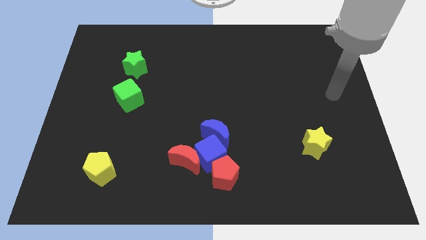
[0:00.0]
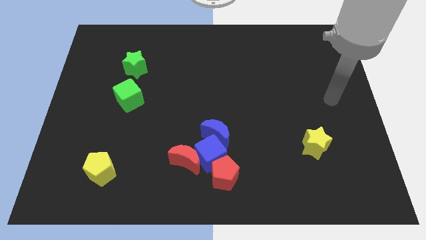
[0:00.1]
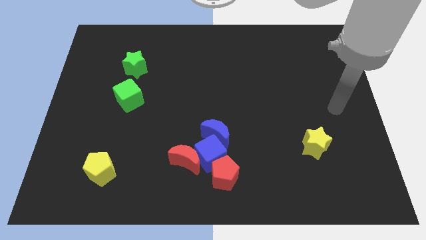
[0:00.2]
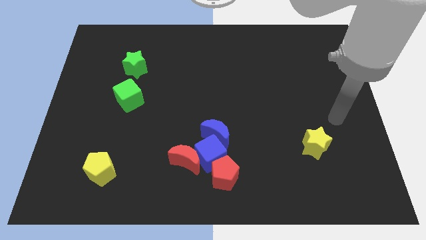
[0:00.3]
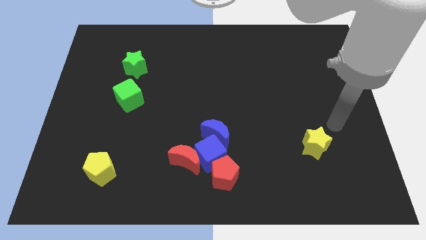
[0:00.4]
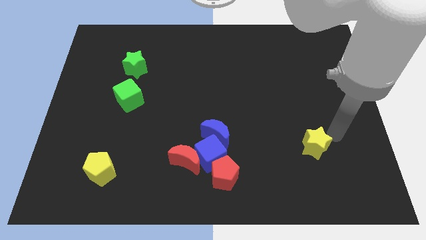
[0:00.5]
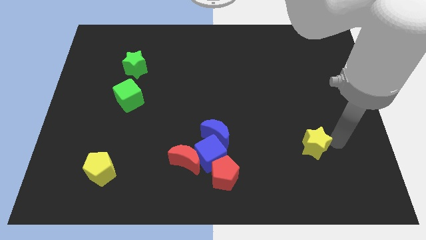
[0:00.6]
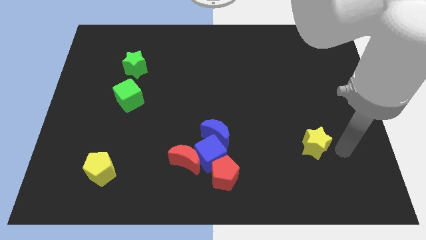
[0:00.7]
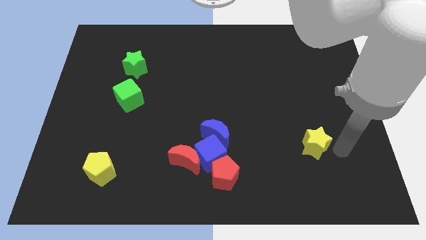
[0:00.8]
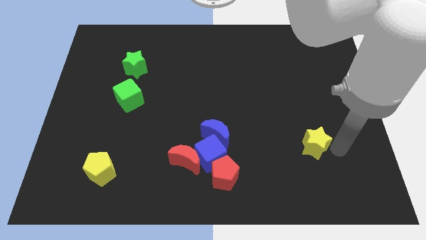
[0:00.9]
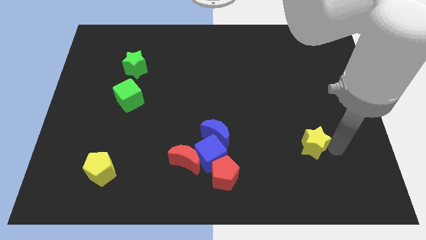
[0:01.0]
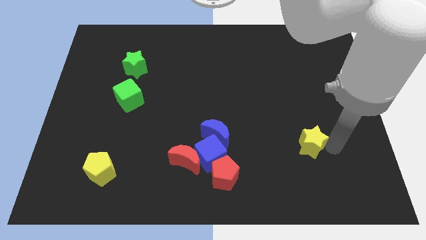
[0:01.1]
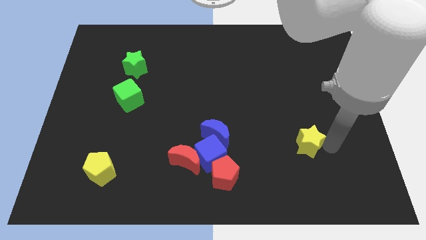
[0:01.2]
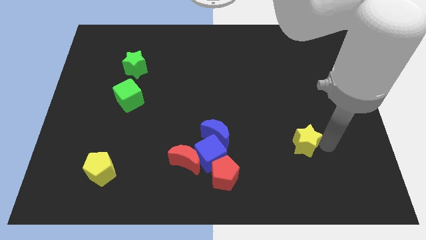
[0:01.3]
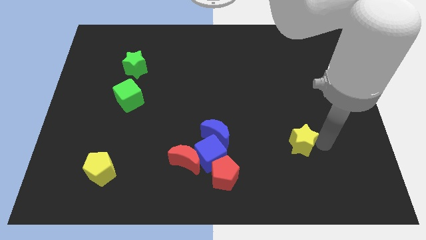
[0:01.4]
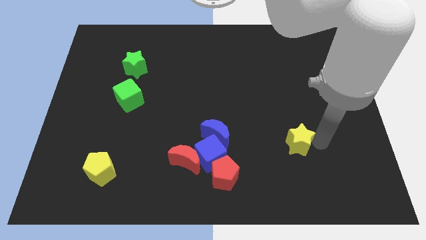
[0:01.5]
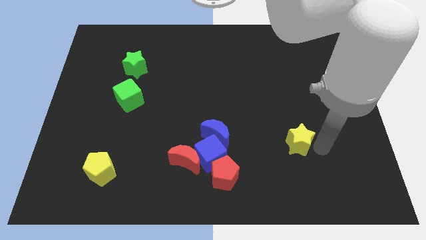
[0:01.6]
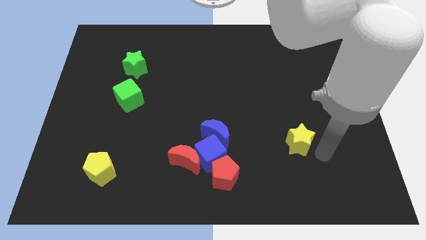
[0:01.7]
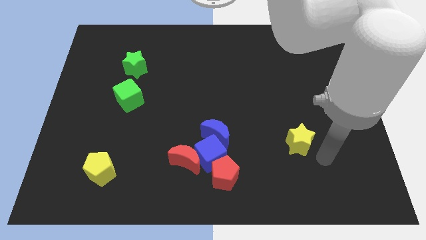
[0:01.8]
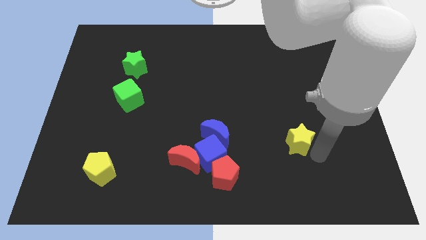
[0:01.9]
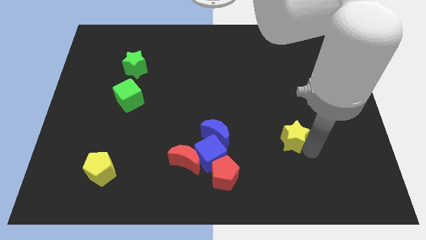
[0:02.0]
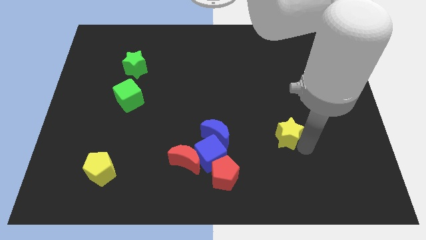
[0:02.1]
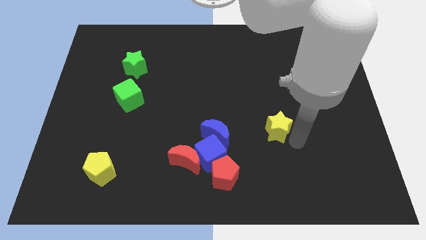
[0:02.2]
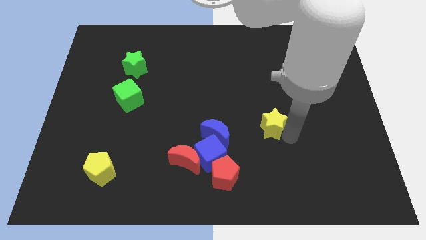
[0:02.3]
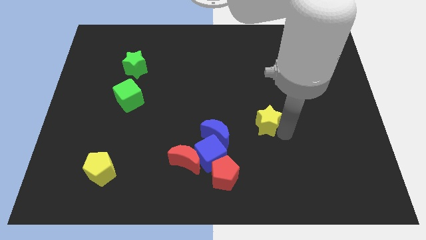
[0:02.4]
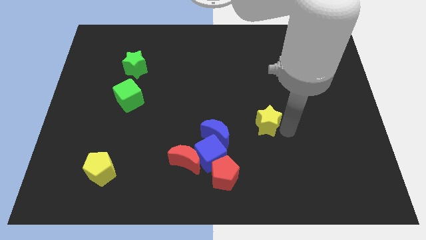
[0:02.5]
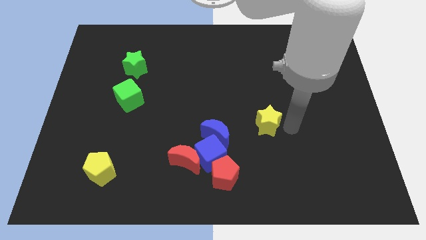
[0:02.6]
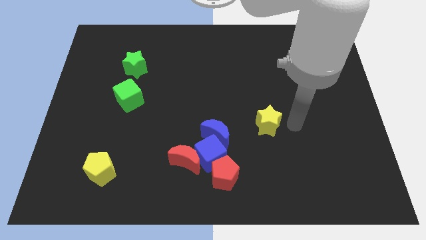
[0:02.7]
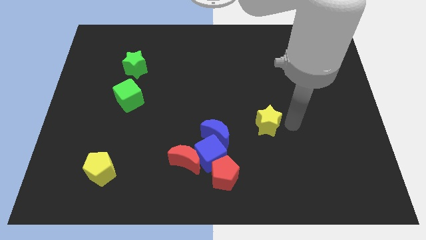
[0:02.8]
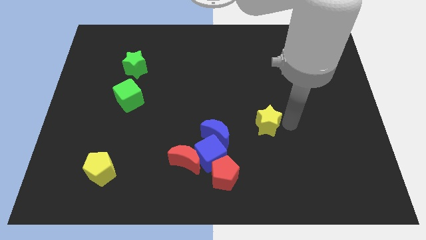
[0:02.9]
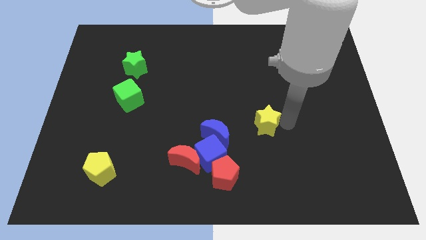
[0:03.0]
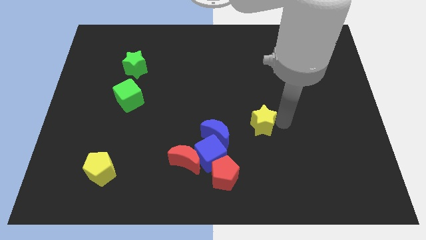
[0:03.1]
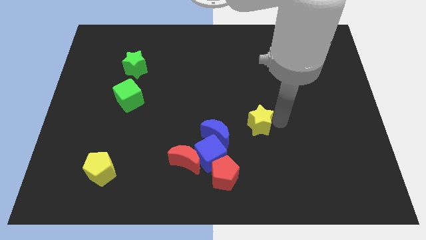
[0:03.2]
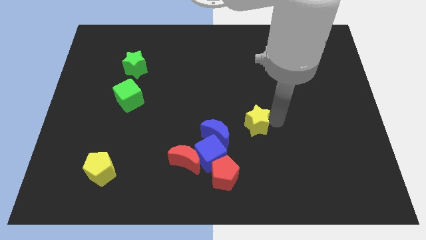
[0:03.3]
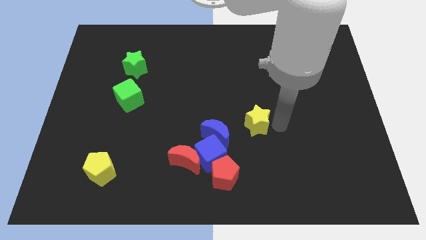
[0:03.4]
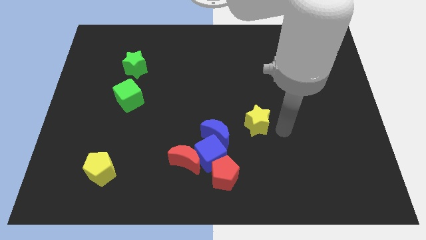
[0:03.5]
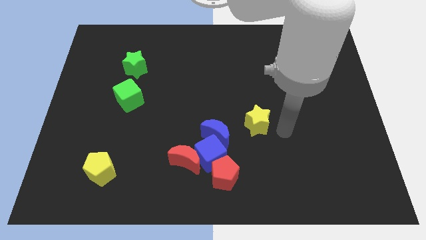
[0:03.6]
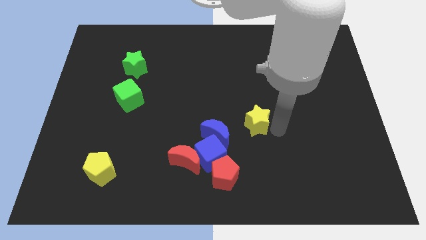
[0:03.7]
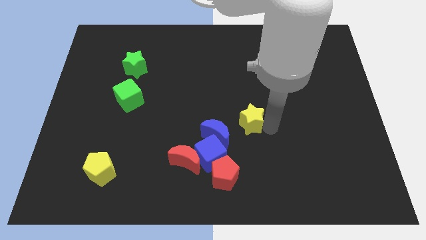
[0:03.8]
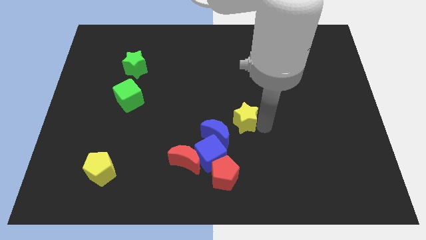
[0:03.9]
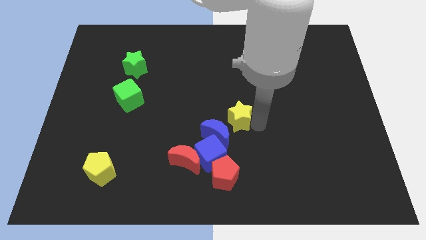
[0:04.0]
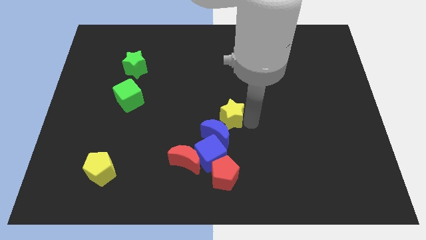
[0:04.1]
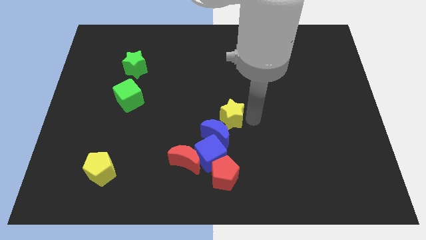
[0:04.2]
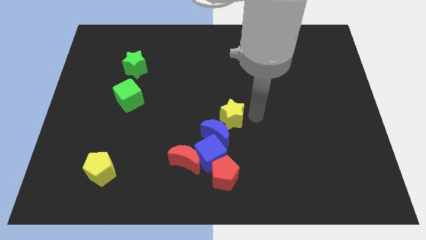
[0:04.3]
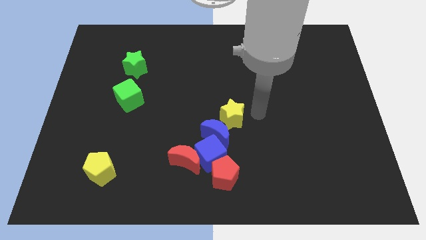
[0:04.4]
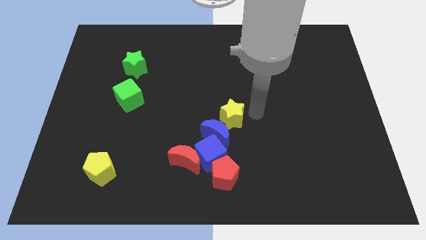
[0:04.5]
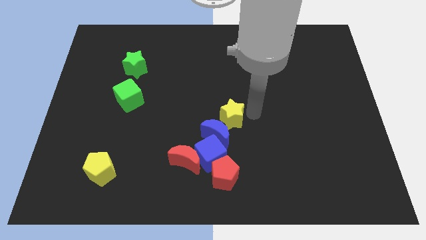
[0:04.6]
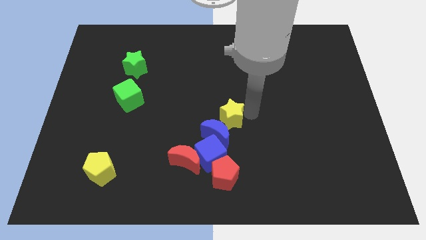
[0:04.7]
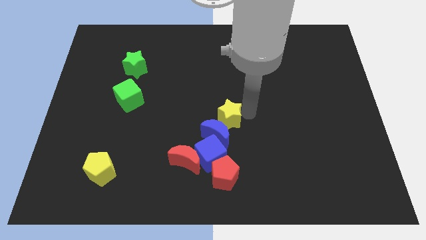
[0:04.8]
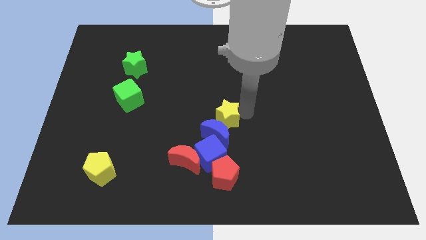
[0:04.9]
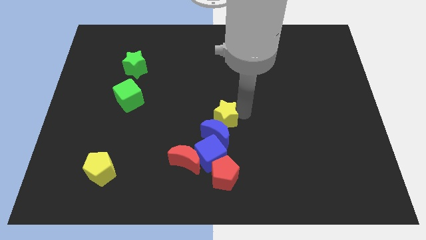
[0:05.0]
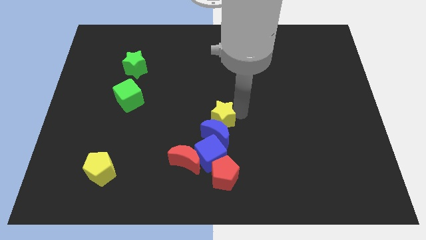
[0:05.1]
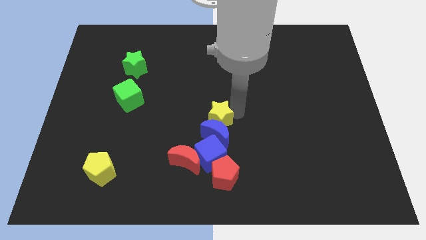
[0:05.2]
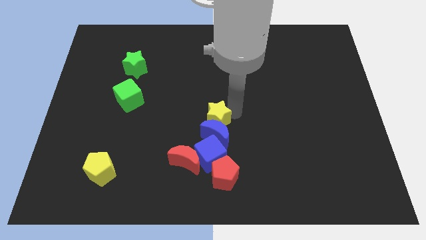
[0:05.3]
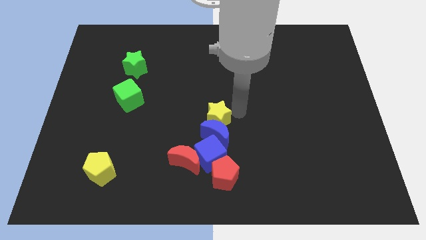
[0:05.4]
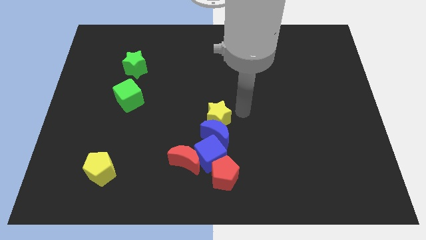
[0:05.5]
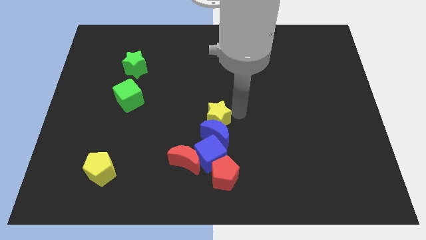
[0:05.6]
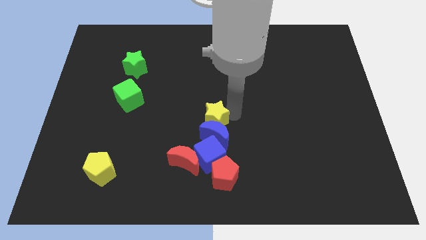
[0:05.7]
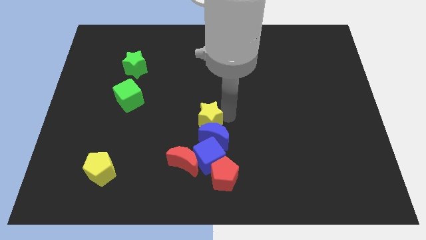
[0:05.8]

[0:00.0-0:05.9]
slide the yellow star to the left

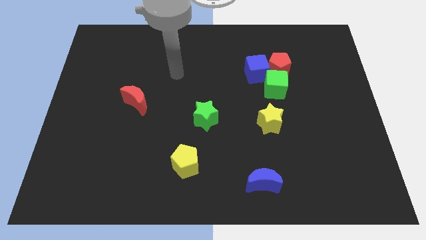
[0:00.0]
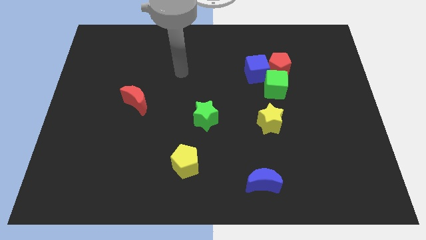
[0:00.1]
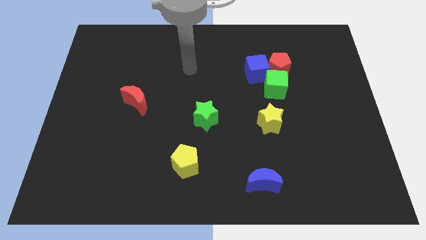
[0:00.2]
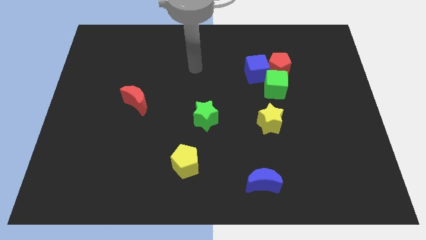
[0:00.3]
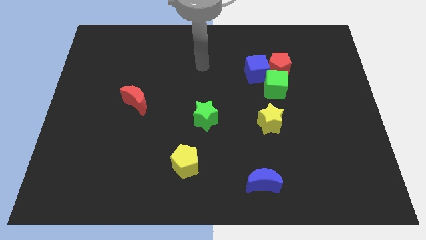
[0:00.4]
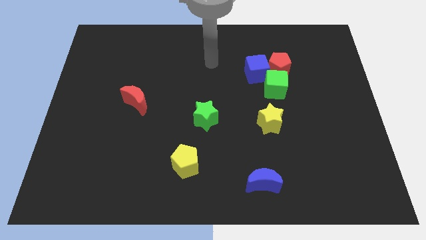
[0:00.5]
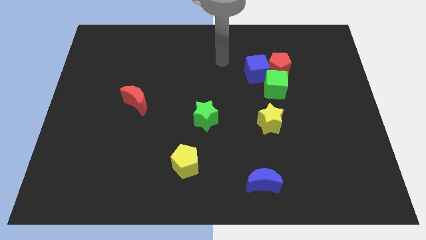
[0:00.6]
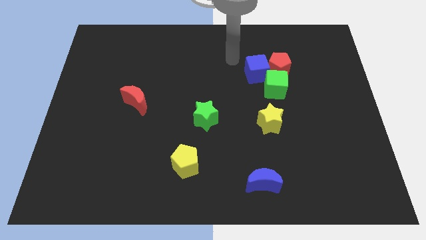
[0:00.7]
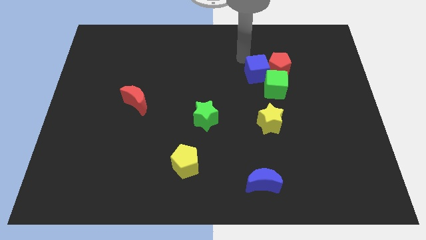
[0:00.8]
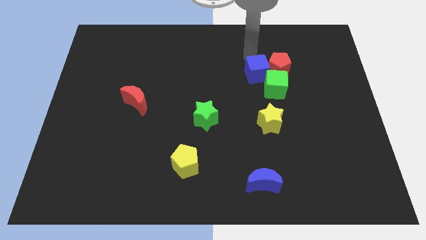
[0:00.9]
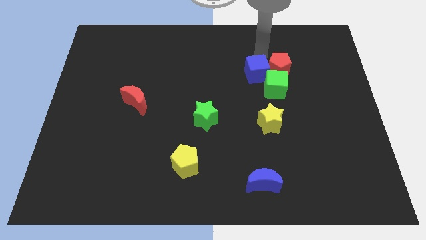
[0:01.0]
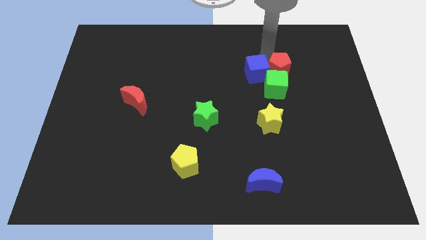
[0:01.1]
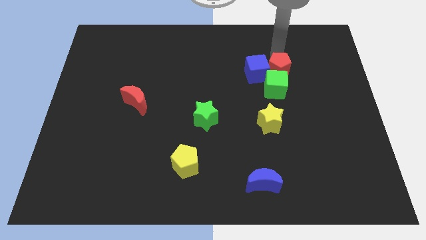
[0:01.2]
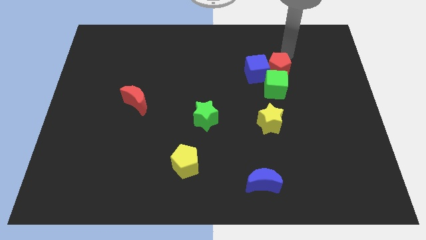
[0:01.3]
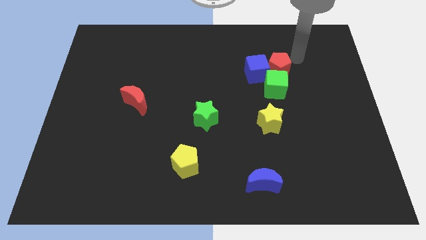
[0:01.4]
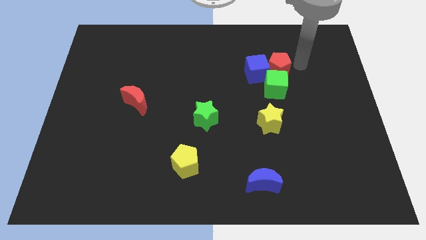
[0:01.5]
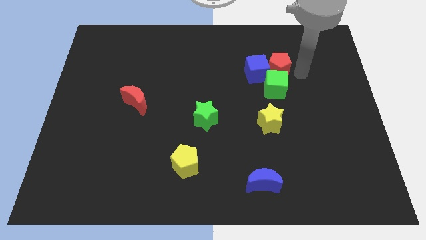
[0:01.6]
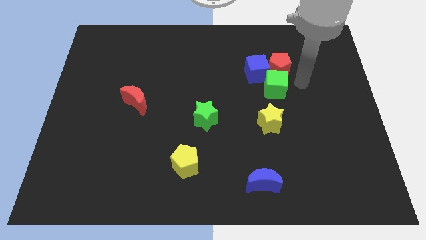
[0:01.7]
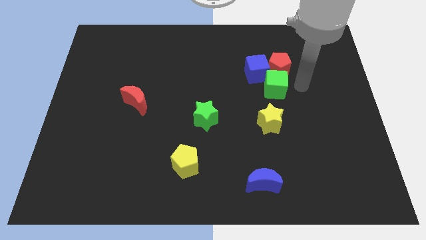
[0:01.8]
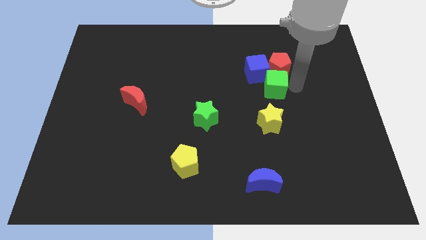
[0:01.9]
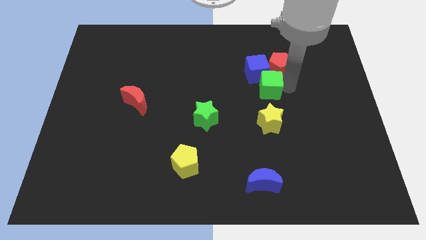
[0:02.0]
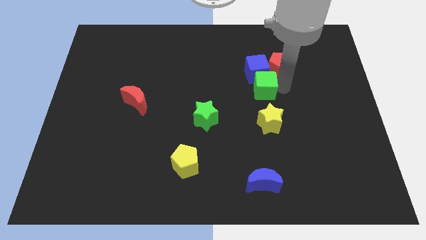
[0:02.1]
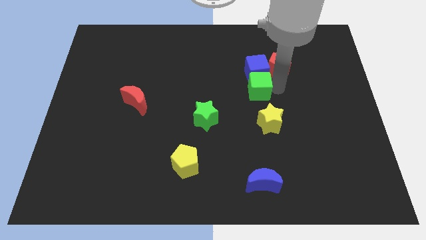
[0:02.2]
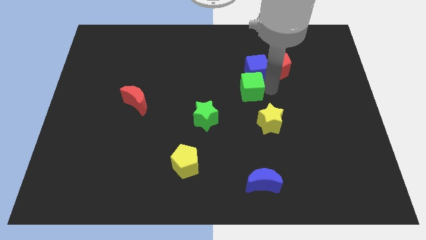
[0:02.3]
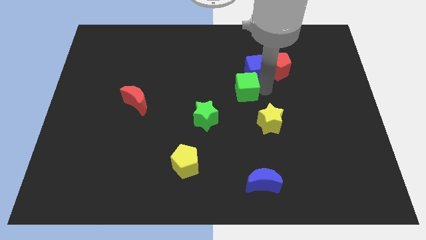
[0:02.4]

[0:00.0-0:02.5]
push the green cube a bit left
